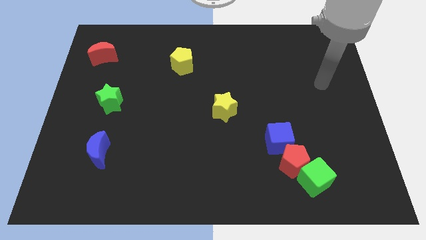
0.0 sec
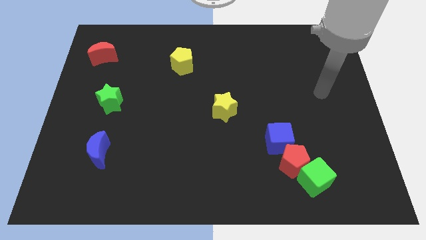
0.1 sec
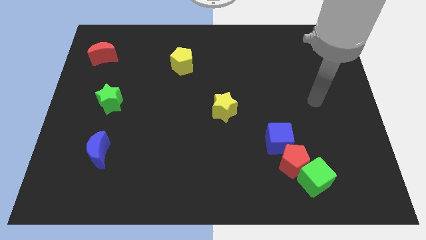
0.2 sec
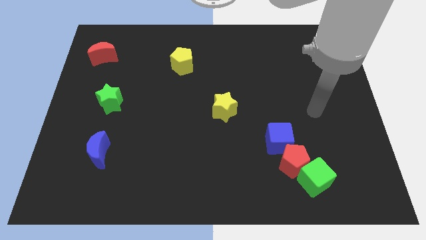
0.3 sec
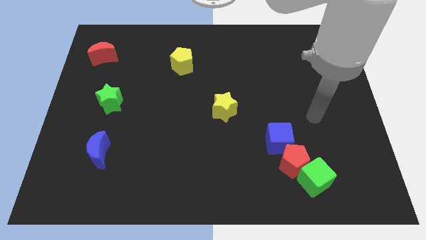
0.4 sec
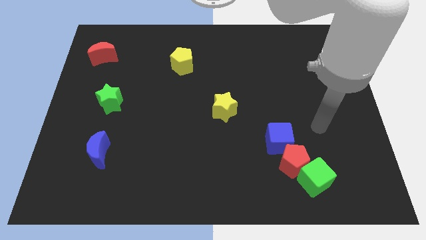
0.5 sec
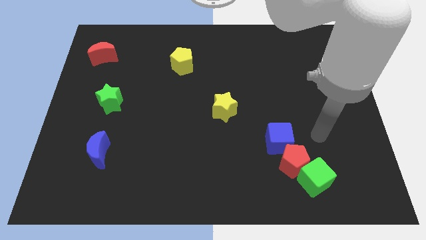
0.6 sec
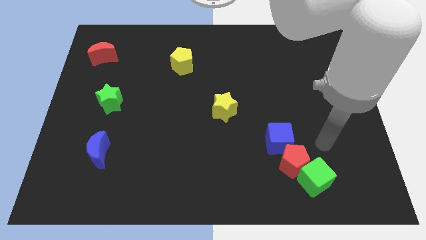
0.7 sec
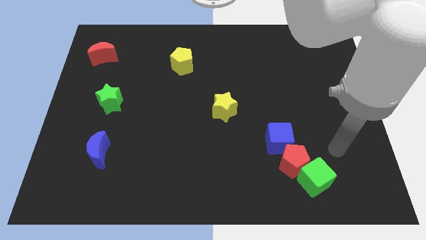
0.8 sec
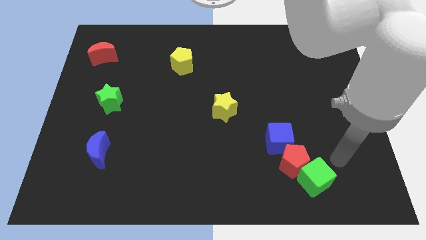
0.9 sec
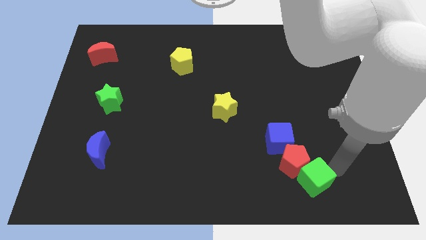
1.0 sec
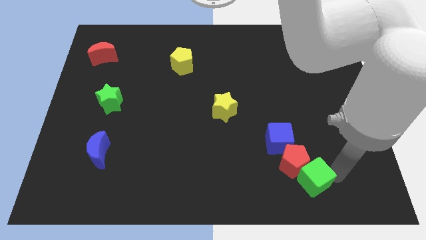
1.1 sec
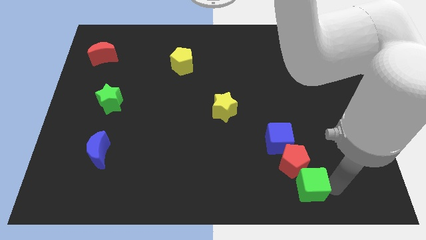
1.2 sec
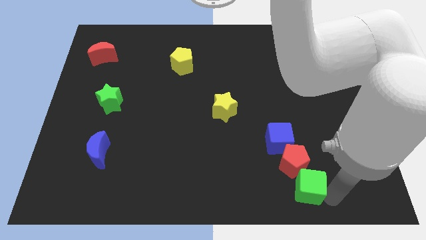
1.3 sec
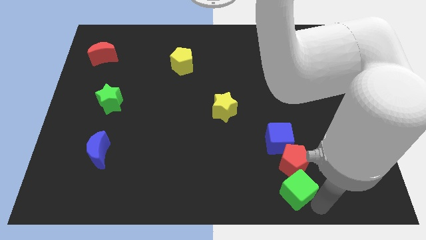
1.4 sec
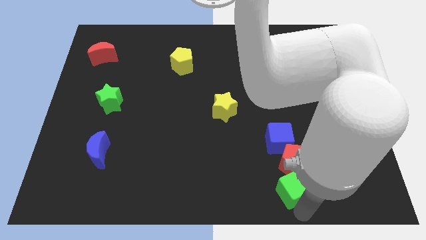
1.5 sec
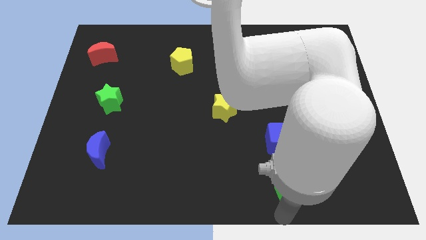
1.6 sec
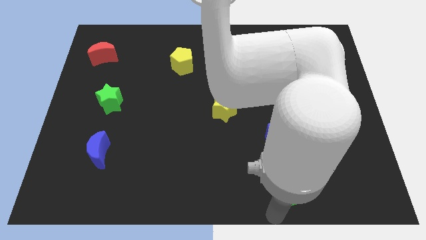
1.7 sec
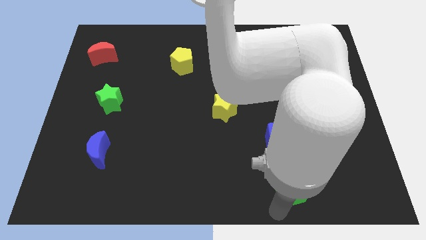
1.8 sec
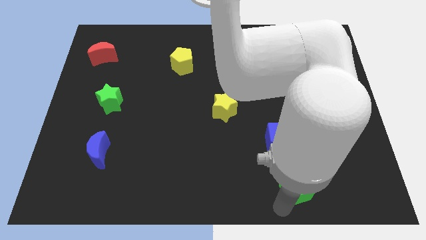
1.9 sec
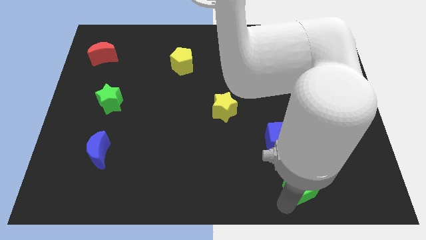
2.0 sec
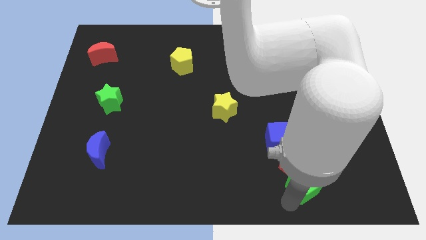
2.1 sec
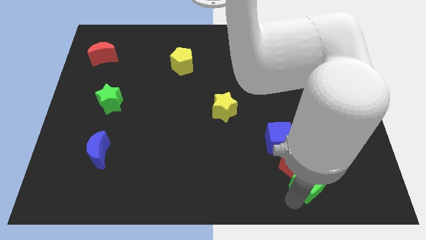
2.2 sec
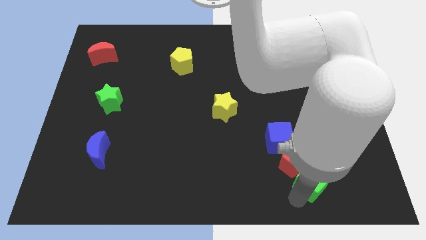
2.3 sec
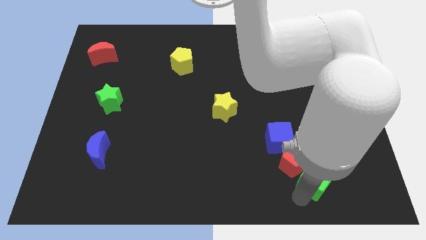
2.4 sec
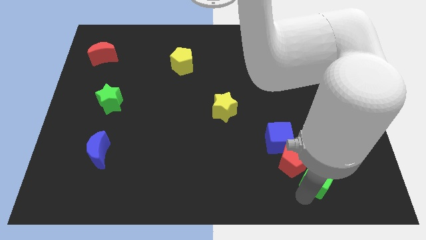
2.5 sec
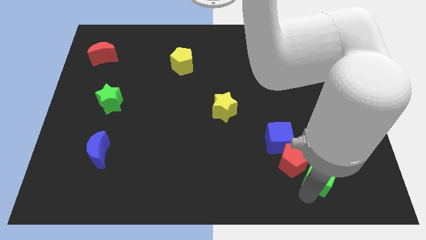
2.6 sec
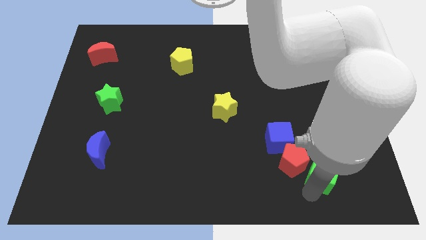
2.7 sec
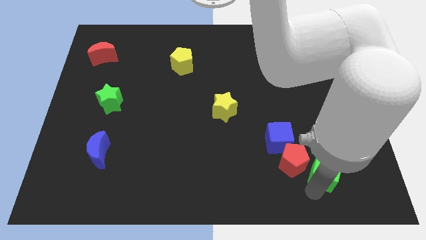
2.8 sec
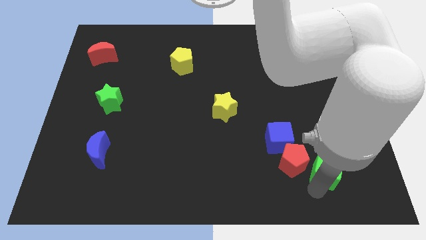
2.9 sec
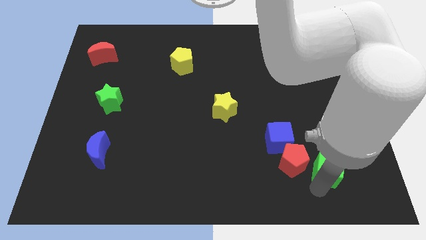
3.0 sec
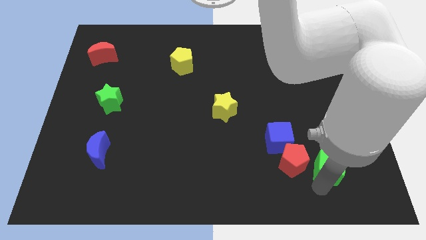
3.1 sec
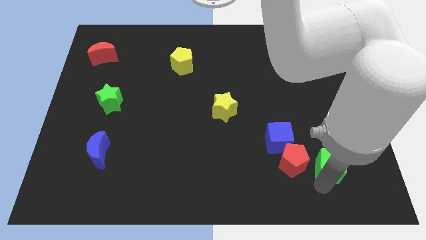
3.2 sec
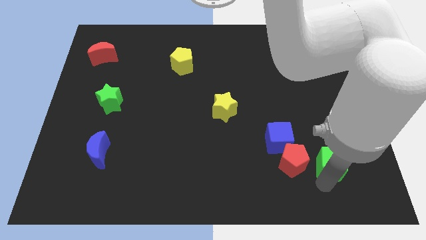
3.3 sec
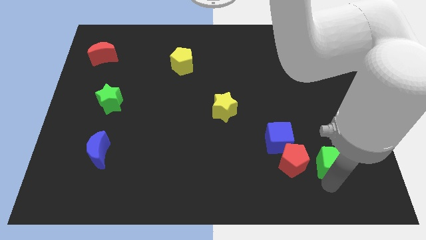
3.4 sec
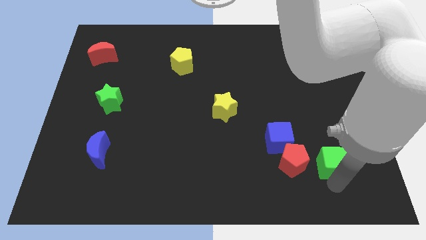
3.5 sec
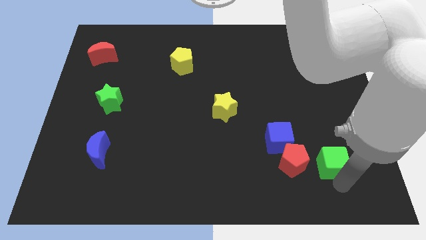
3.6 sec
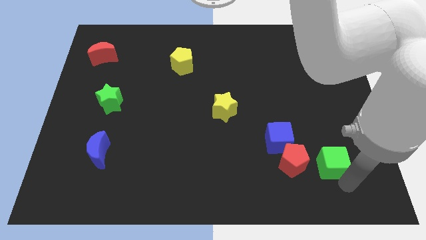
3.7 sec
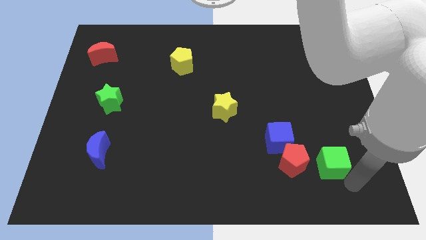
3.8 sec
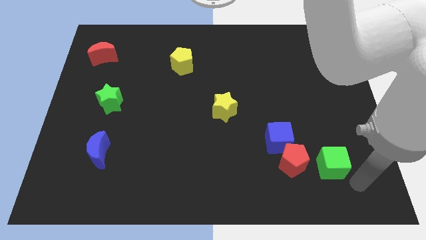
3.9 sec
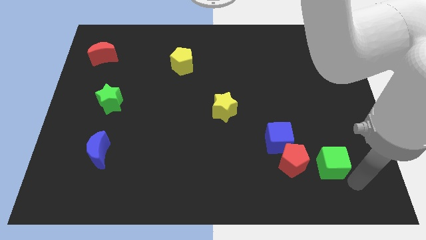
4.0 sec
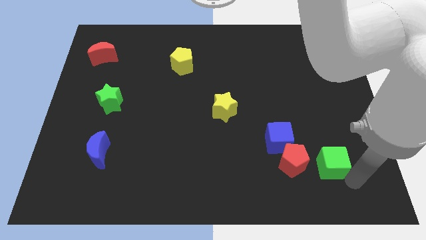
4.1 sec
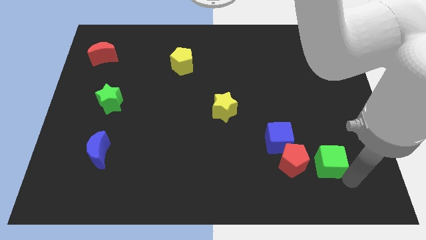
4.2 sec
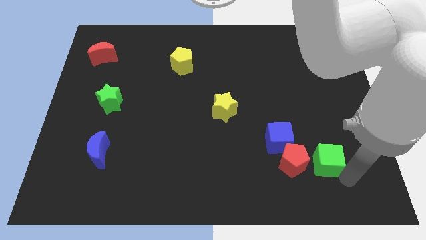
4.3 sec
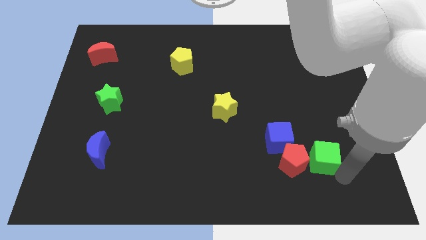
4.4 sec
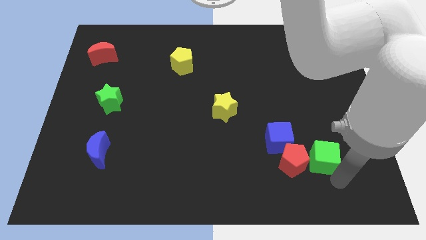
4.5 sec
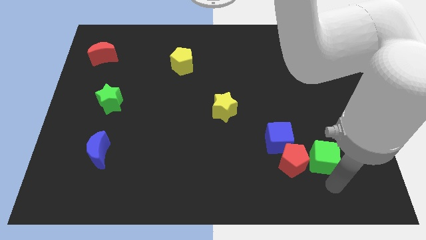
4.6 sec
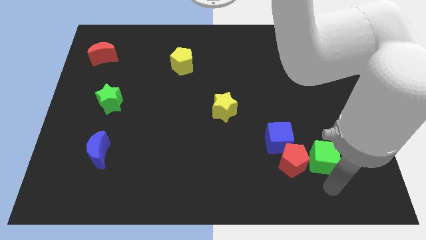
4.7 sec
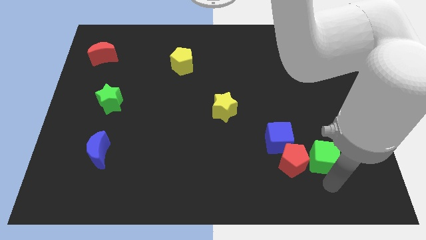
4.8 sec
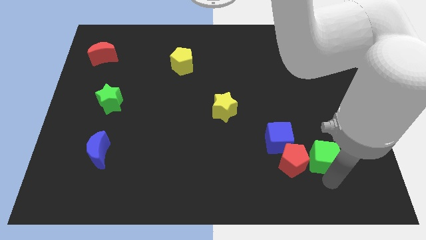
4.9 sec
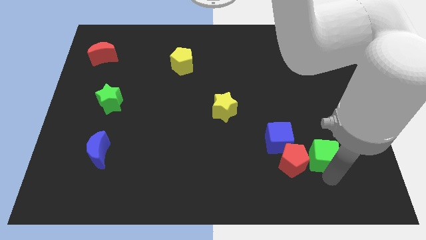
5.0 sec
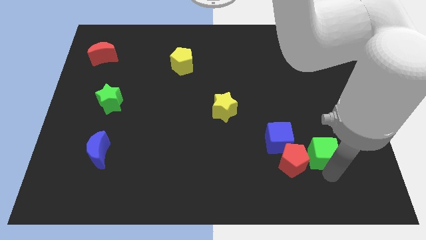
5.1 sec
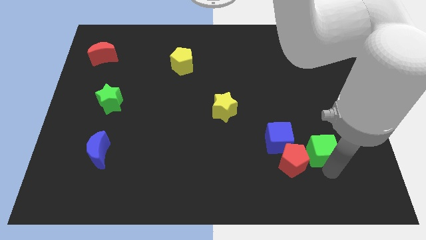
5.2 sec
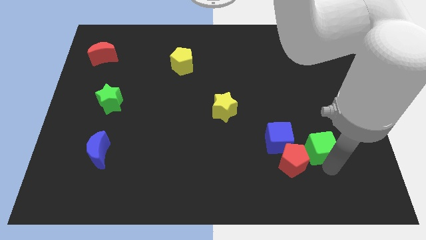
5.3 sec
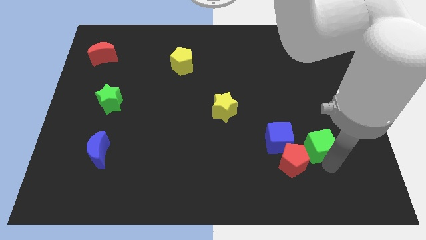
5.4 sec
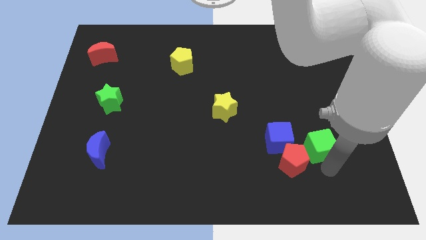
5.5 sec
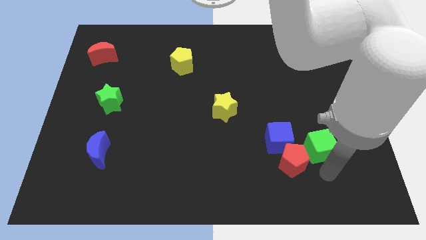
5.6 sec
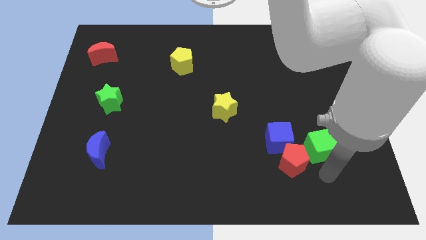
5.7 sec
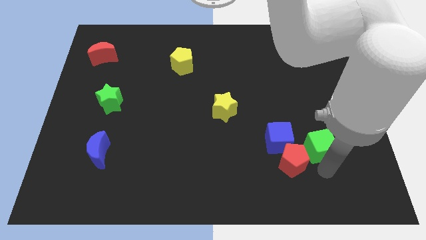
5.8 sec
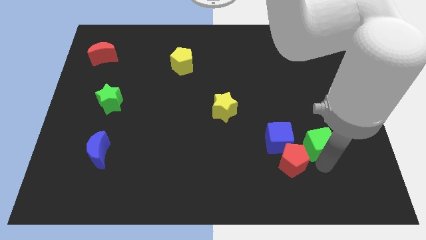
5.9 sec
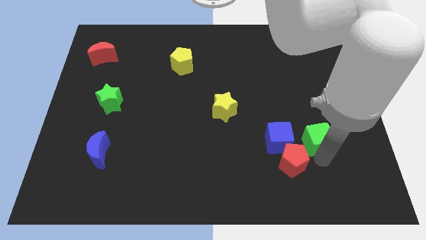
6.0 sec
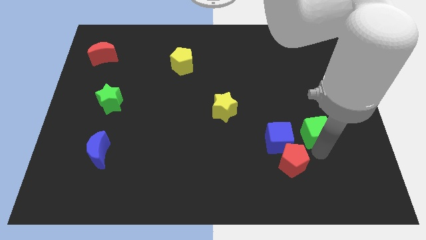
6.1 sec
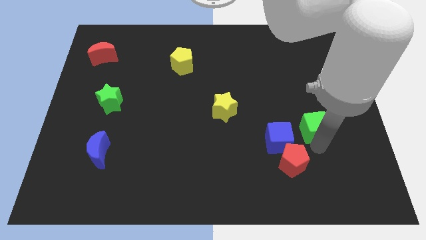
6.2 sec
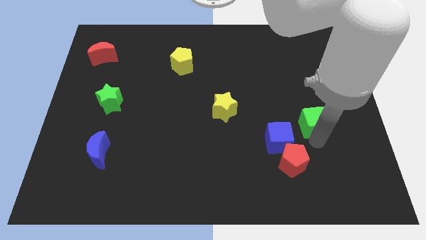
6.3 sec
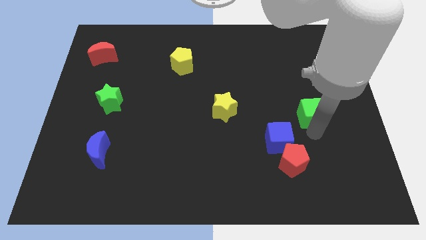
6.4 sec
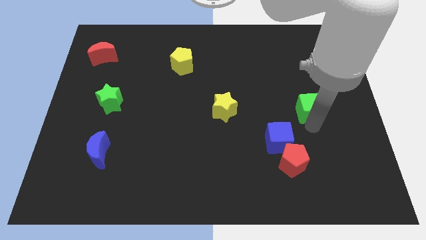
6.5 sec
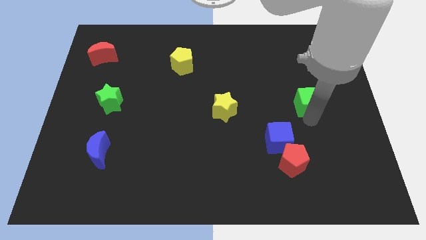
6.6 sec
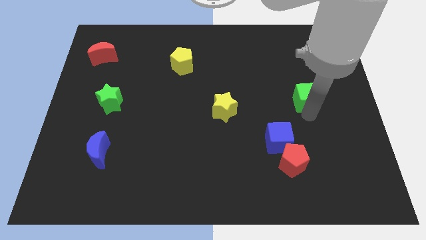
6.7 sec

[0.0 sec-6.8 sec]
push the green cube up

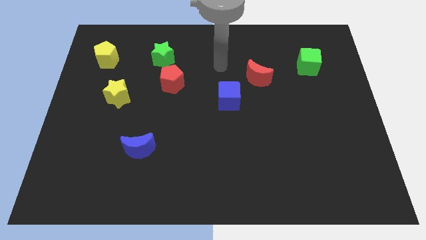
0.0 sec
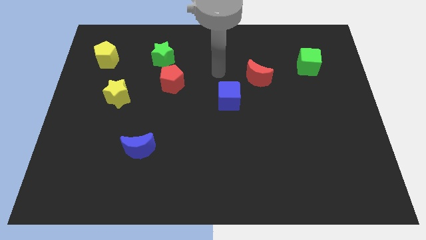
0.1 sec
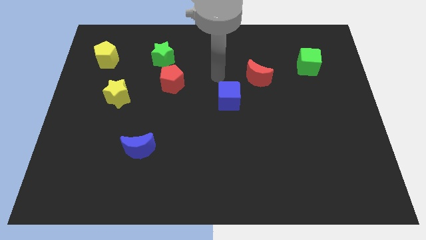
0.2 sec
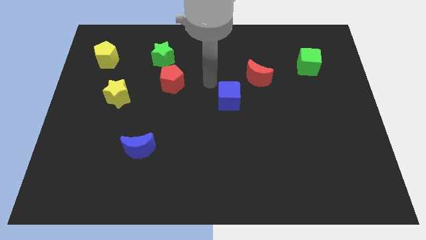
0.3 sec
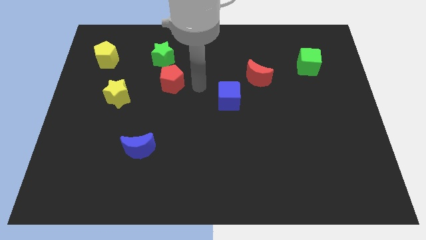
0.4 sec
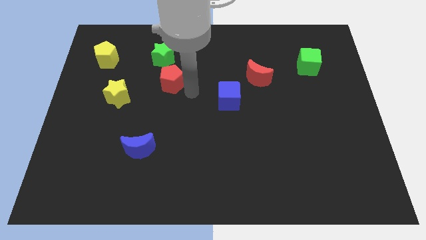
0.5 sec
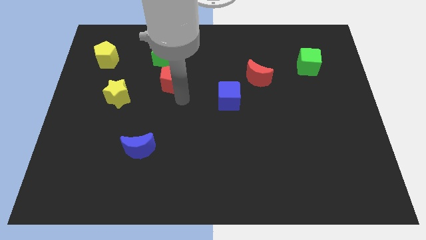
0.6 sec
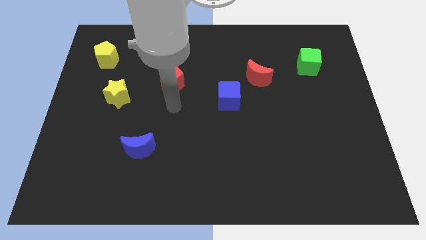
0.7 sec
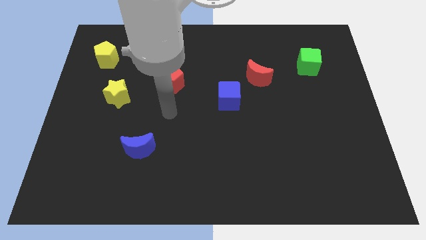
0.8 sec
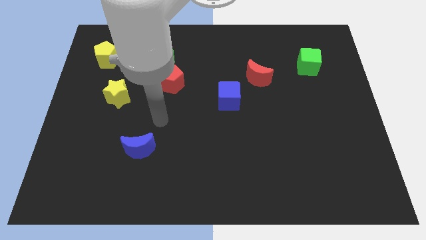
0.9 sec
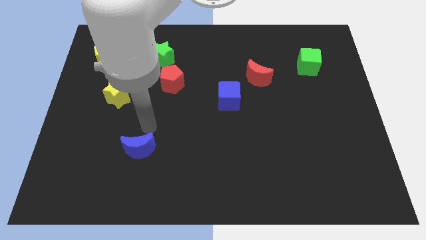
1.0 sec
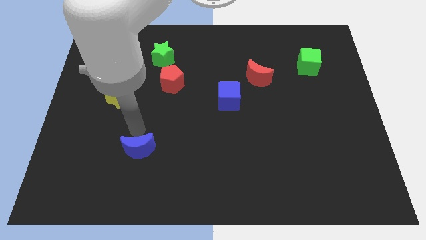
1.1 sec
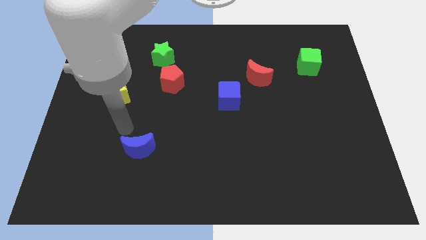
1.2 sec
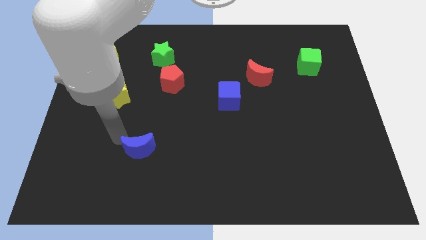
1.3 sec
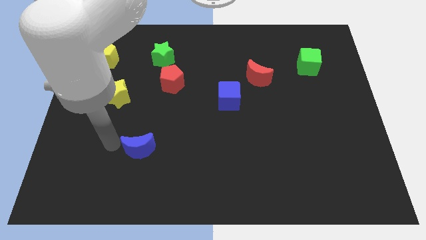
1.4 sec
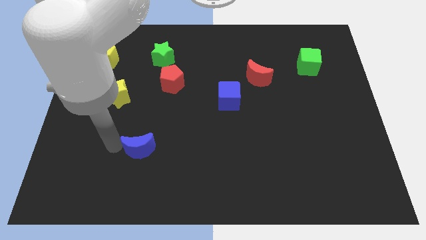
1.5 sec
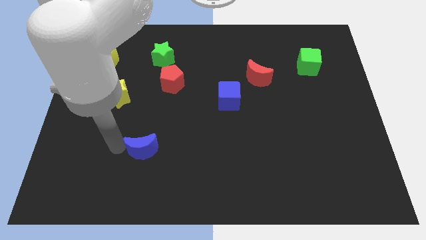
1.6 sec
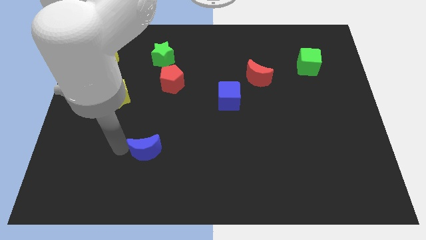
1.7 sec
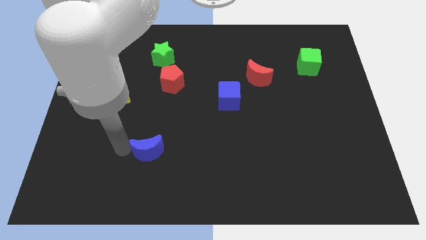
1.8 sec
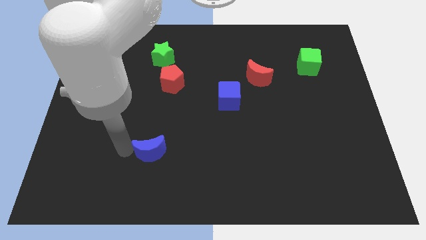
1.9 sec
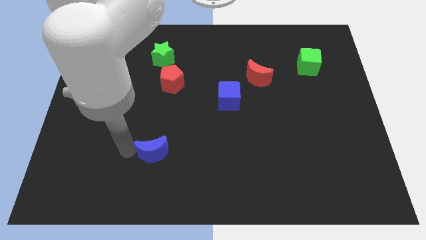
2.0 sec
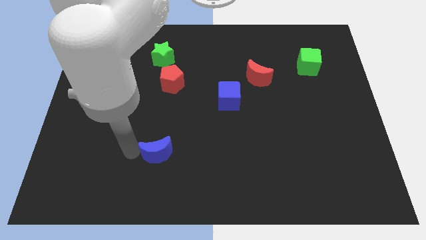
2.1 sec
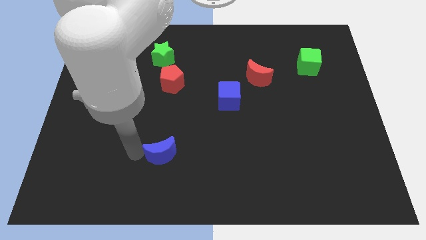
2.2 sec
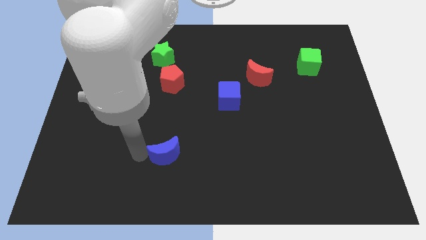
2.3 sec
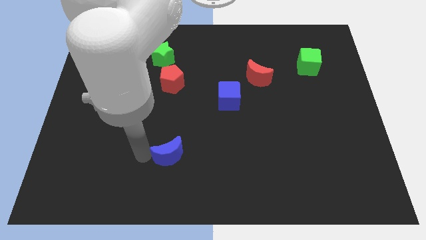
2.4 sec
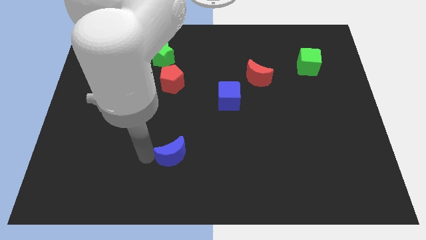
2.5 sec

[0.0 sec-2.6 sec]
slide the blue moon to the right slightly
